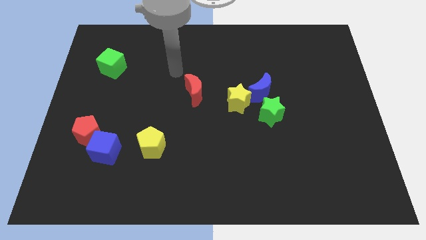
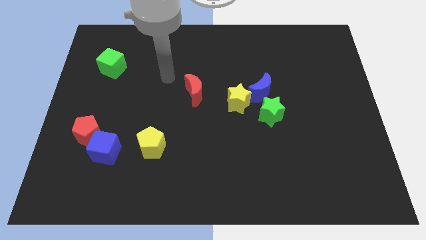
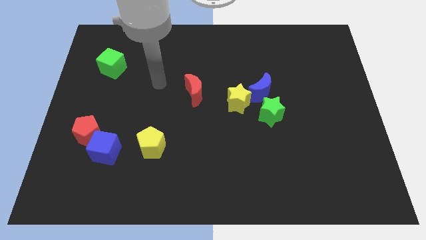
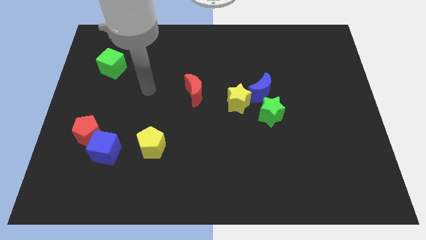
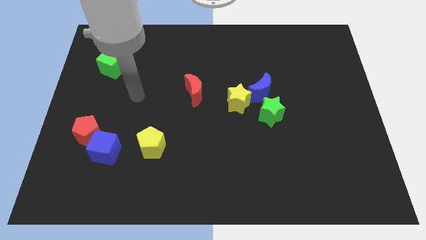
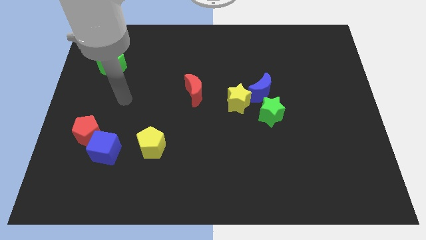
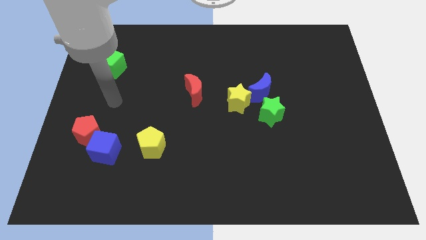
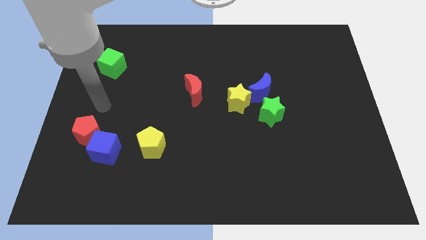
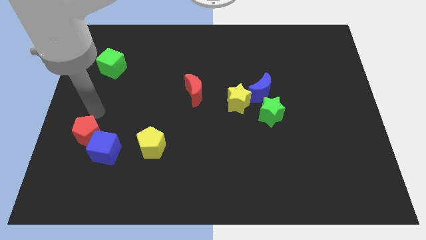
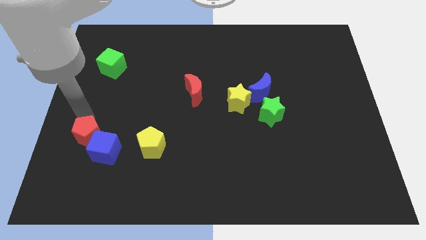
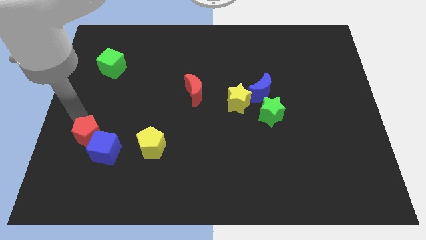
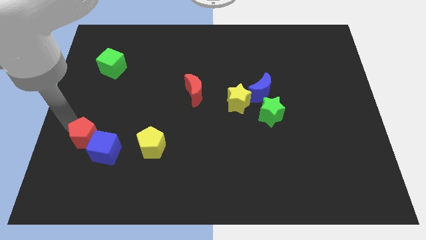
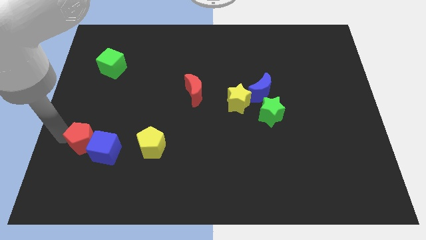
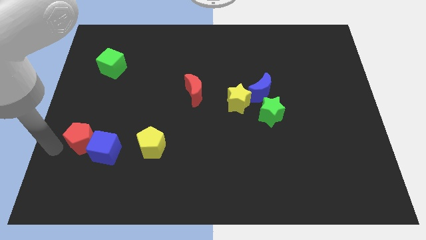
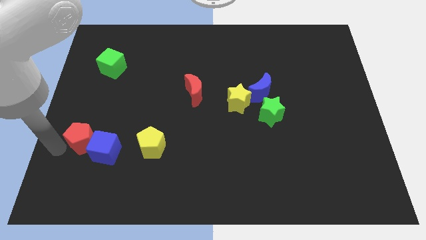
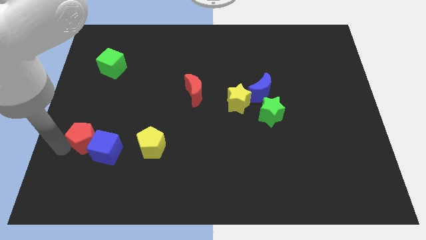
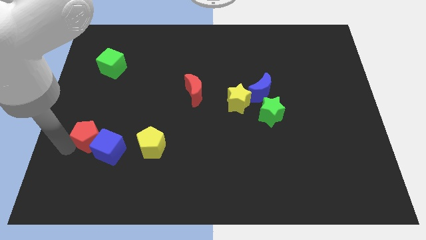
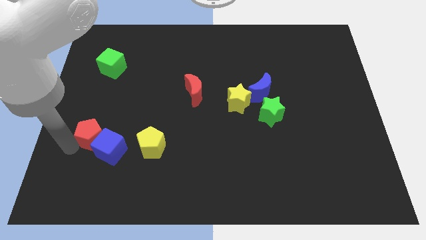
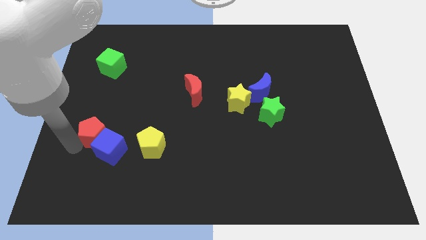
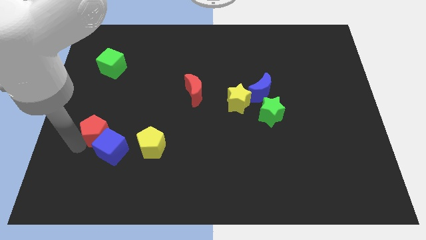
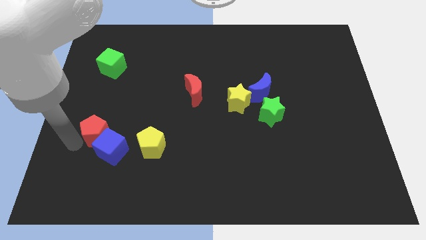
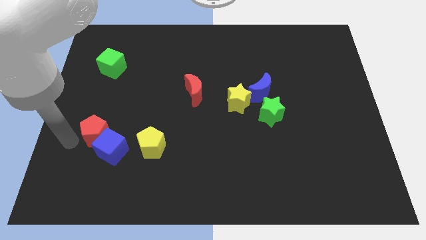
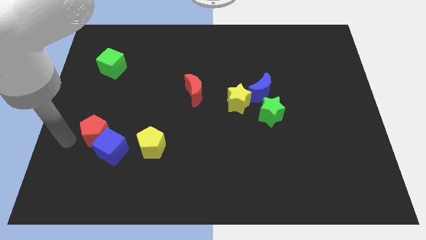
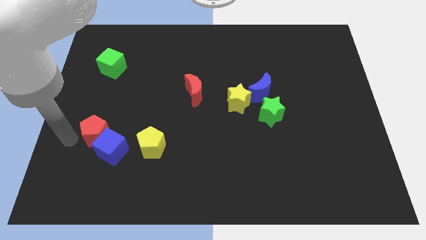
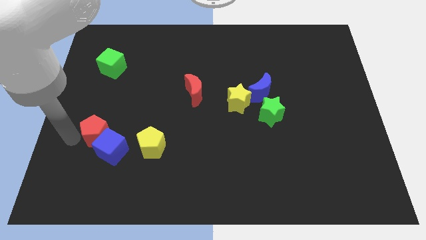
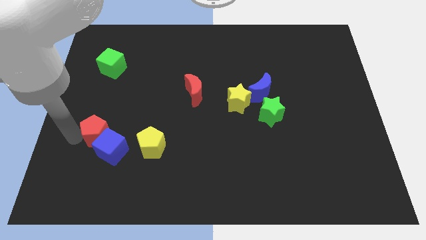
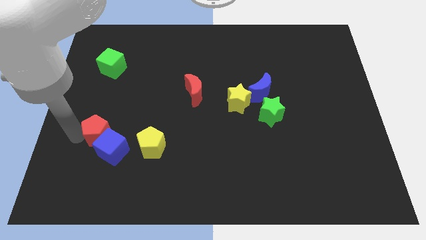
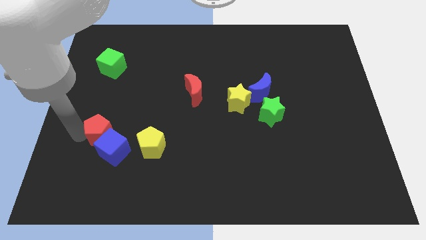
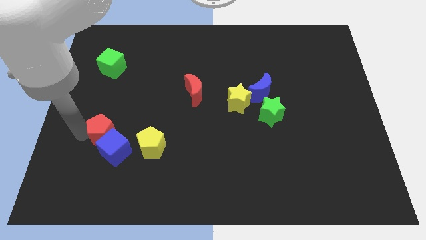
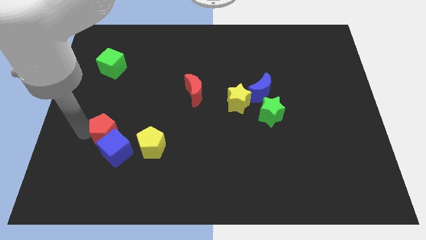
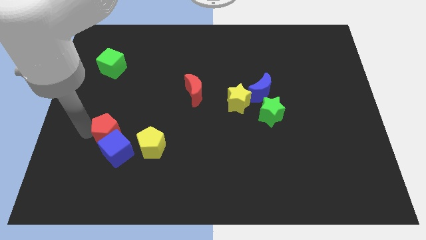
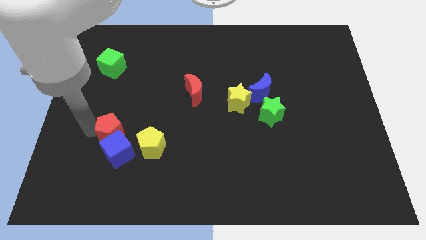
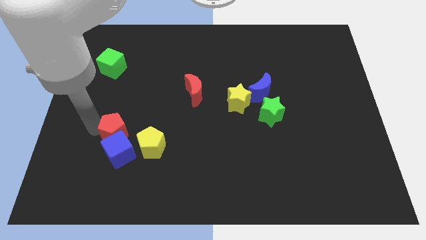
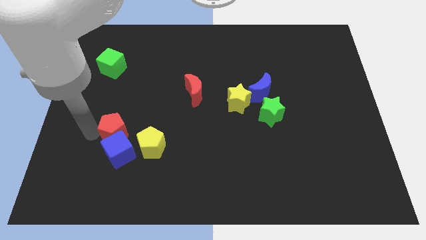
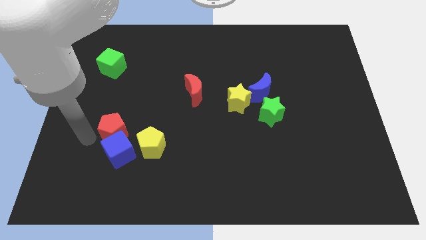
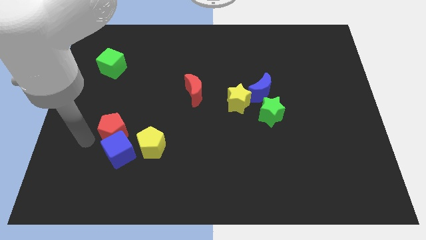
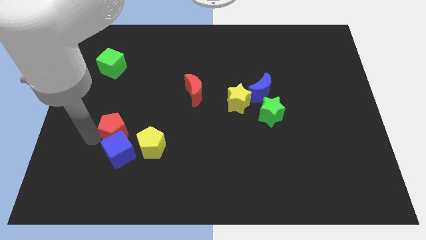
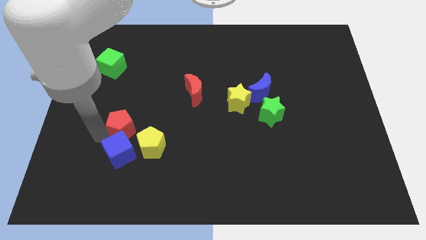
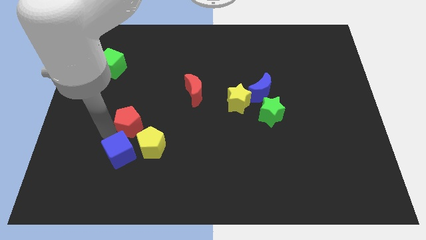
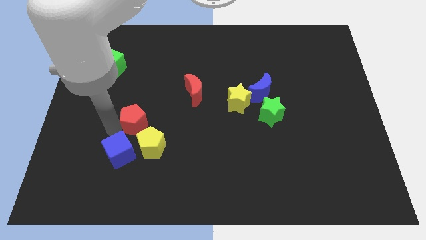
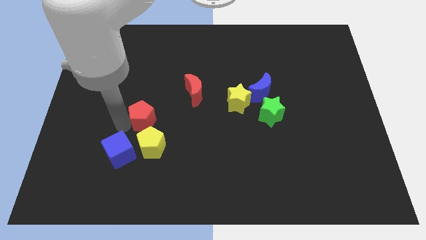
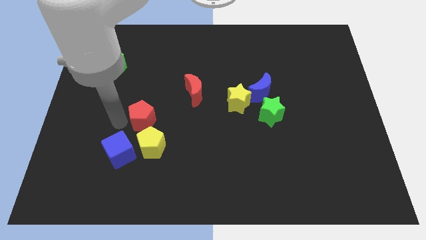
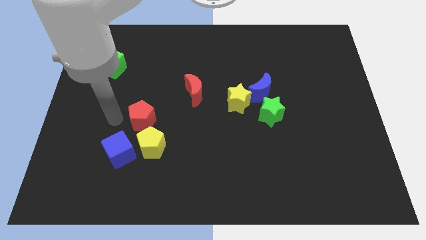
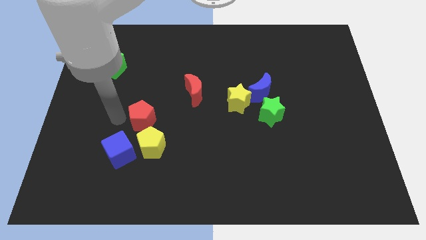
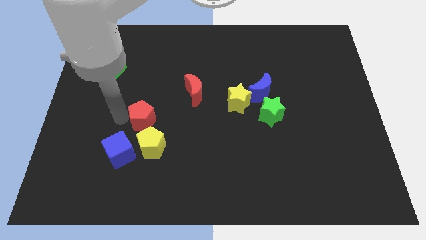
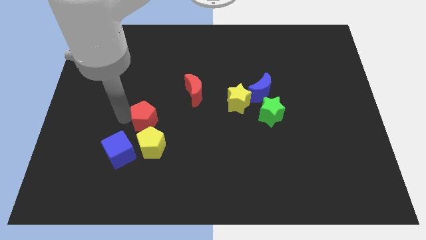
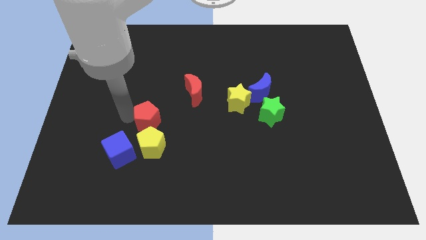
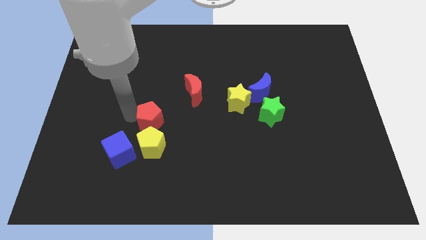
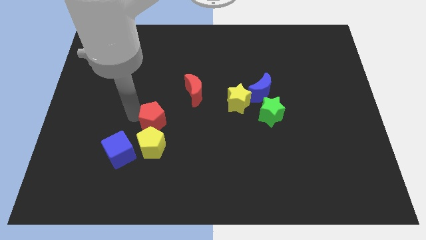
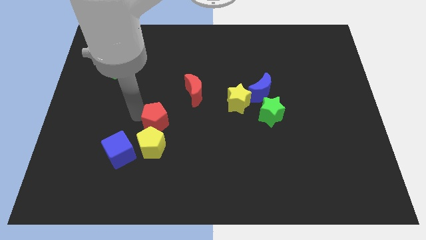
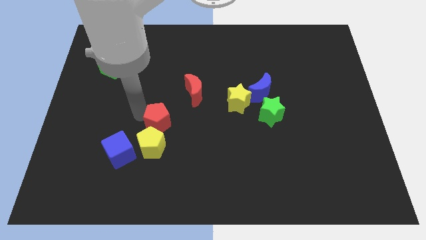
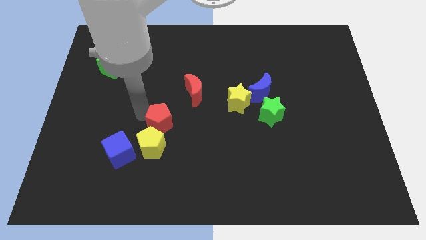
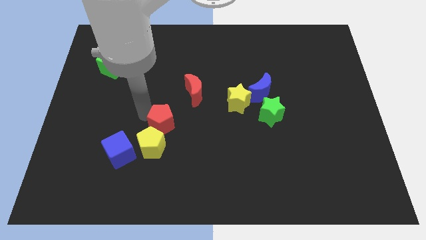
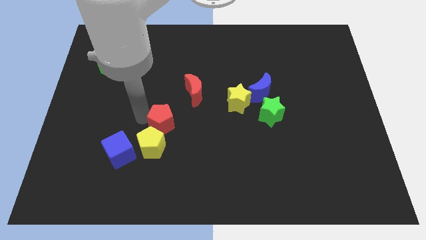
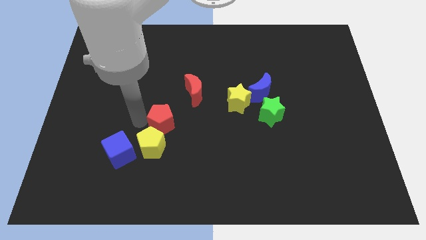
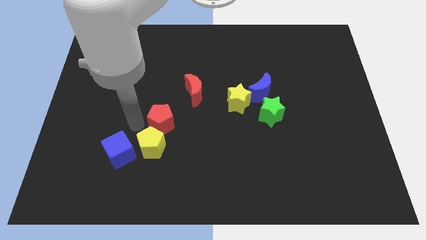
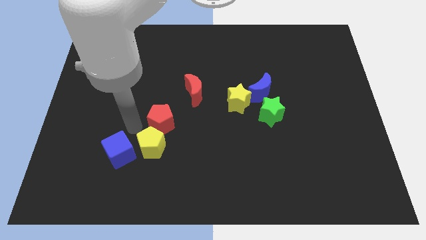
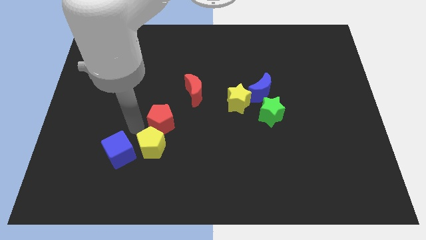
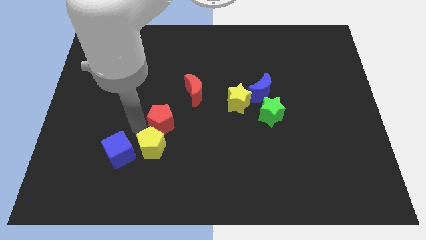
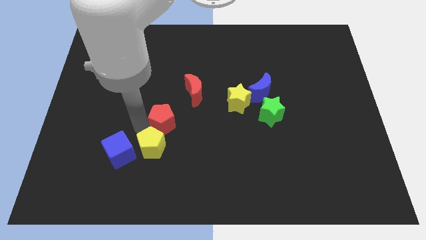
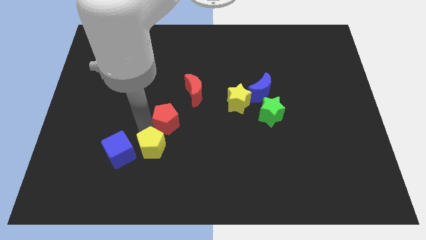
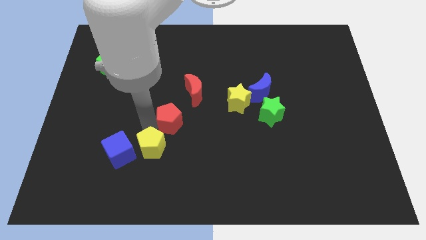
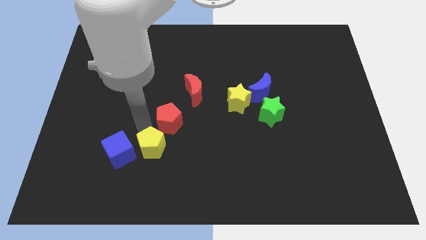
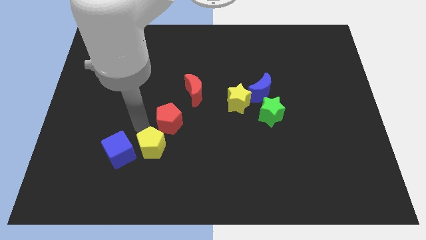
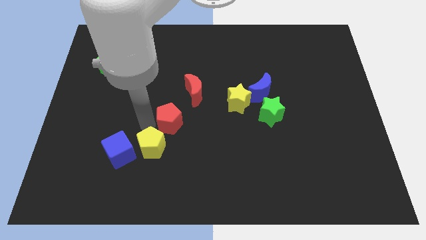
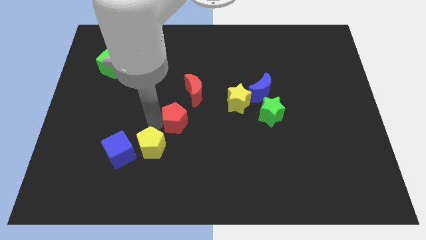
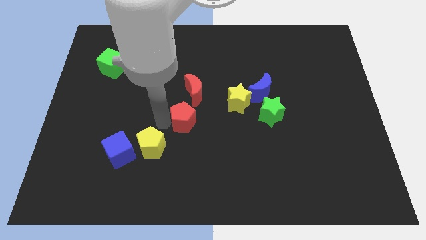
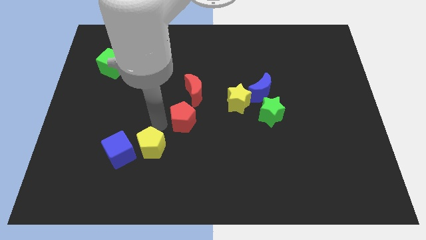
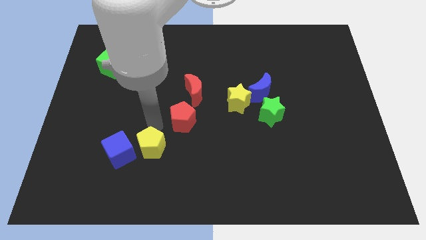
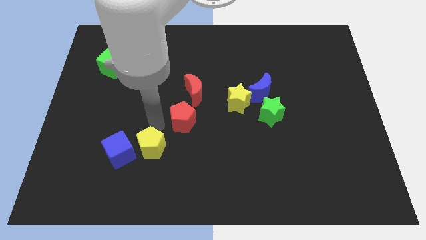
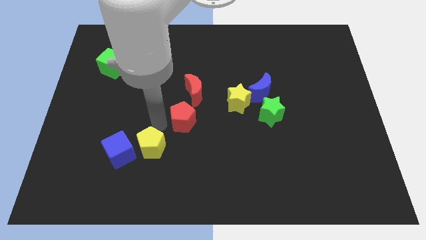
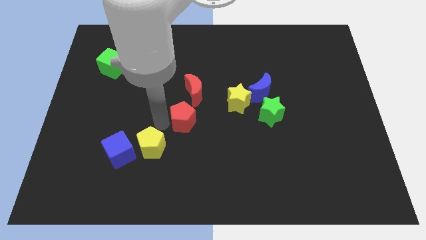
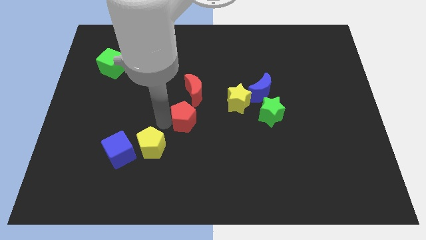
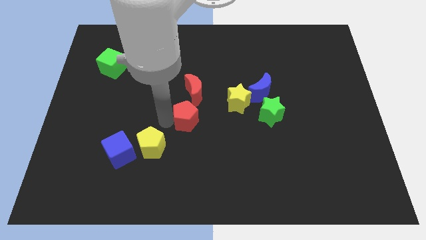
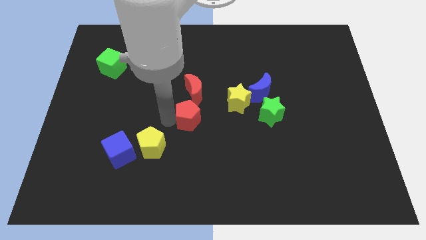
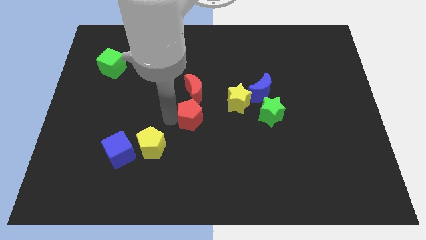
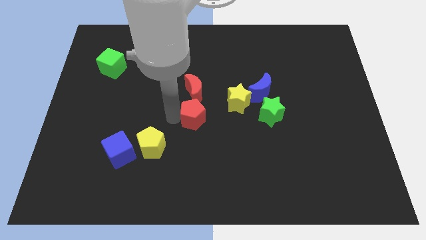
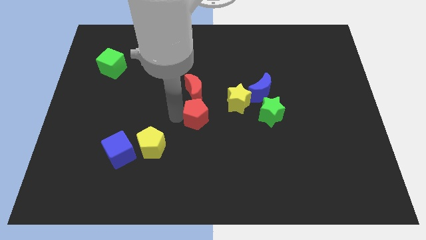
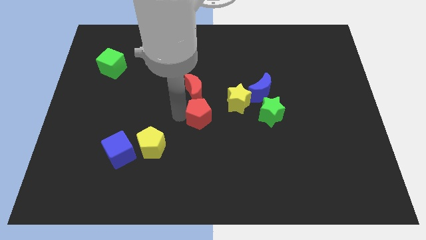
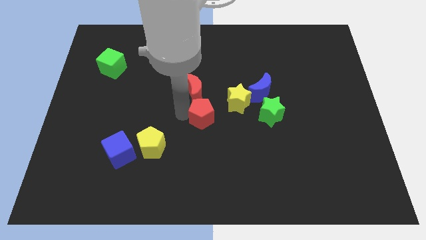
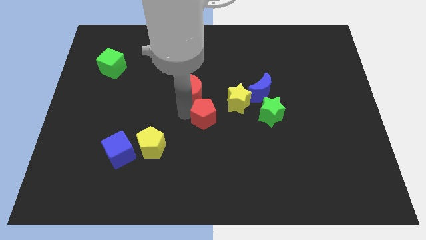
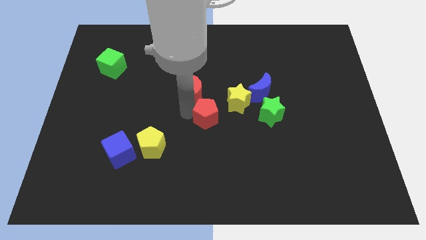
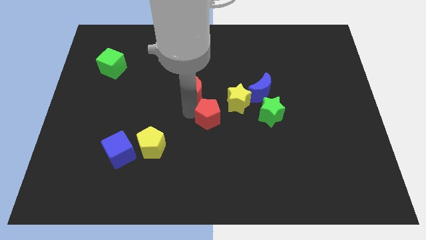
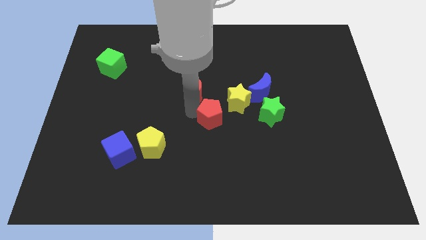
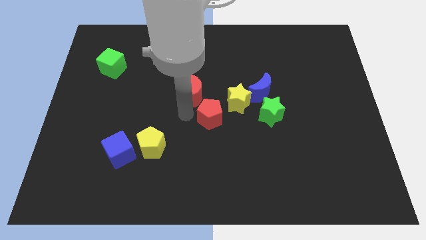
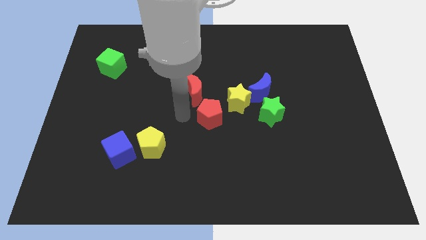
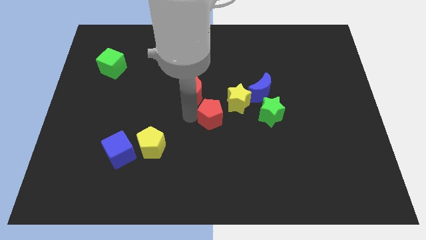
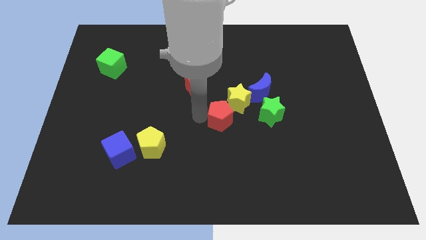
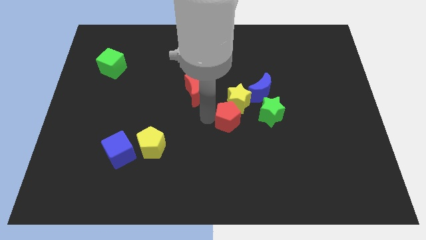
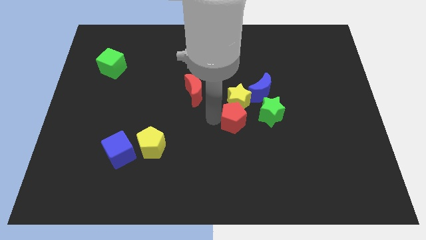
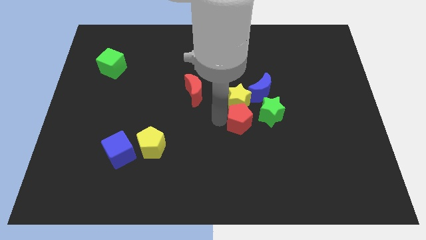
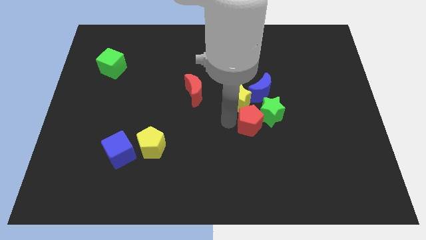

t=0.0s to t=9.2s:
push the red pentagon towards the green star
